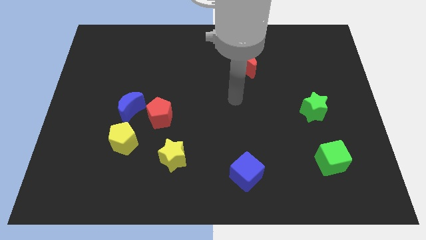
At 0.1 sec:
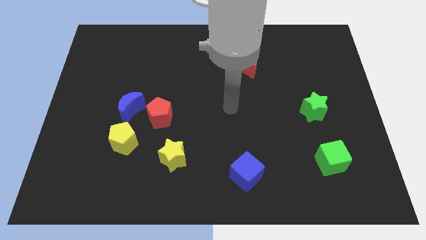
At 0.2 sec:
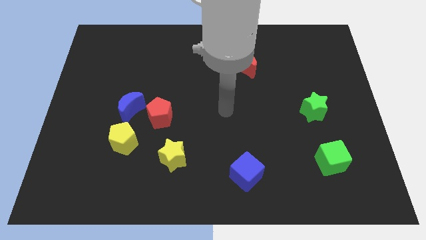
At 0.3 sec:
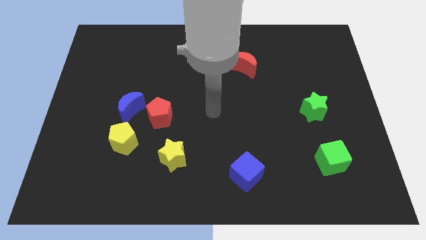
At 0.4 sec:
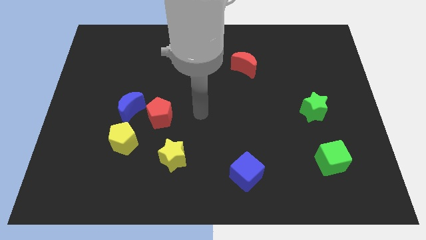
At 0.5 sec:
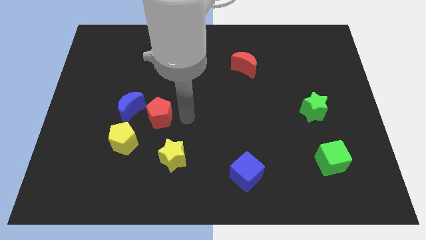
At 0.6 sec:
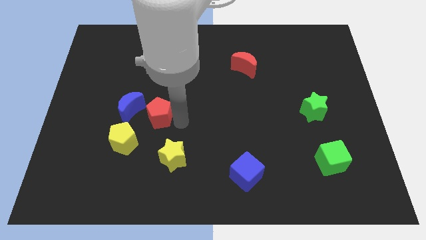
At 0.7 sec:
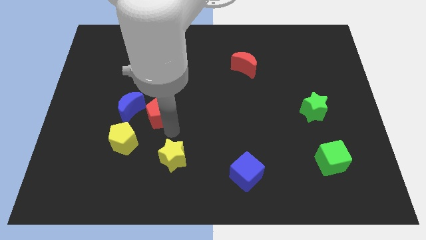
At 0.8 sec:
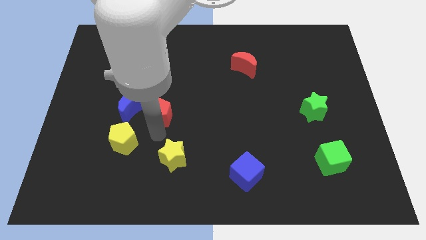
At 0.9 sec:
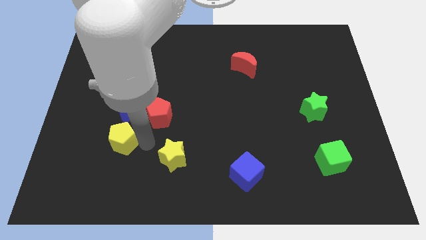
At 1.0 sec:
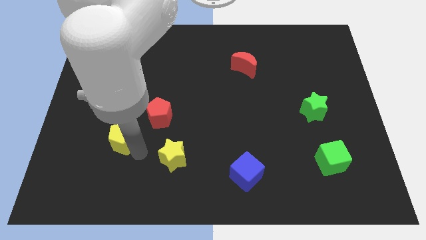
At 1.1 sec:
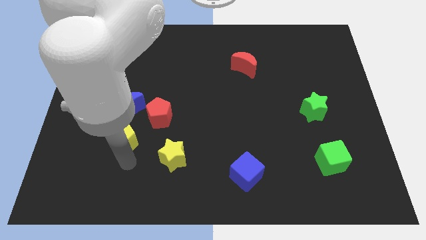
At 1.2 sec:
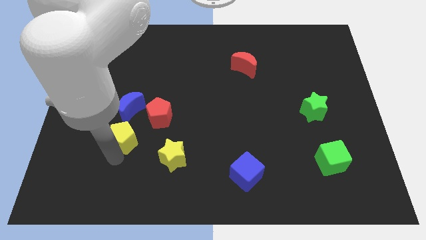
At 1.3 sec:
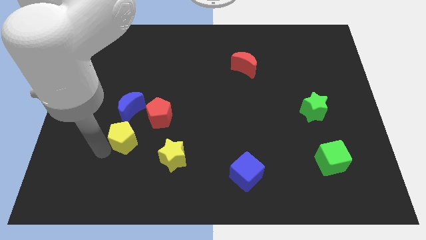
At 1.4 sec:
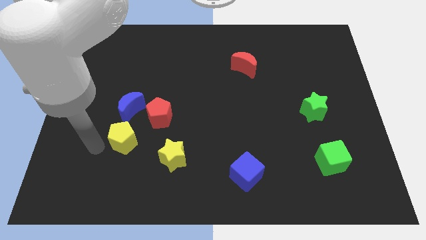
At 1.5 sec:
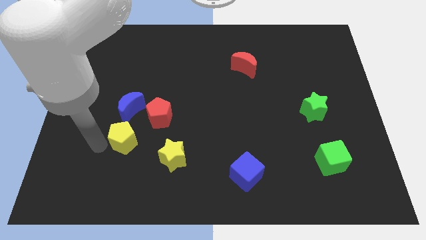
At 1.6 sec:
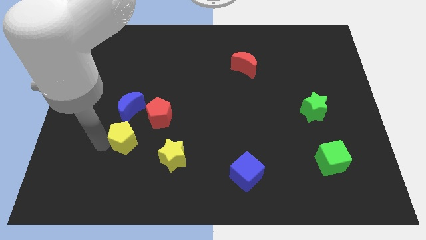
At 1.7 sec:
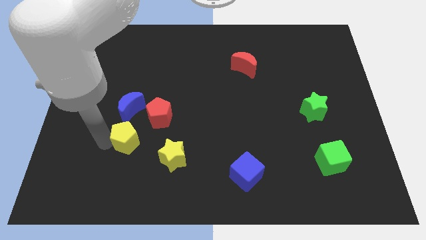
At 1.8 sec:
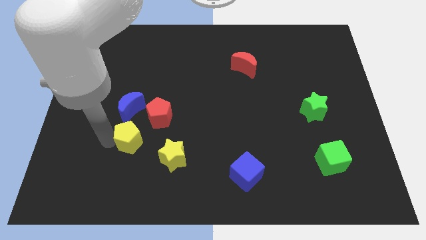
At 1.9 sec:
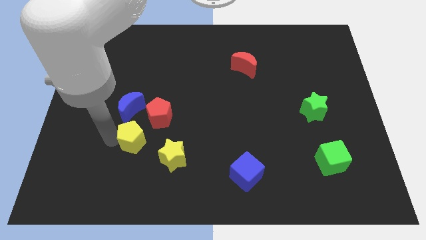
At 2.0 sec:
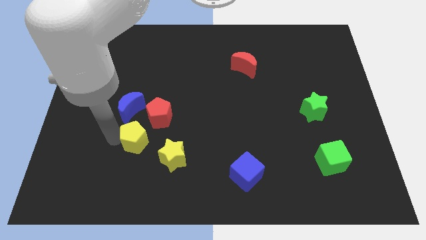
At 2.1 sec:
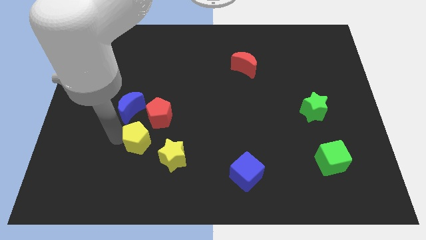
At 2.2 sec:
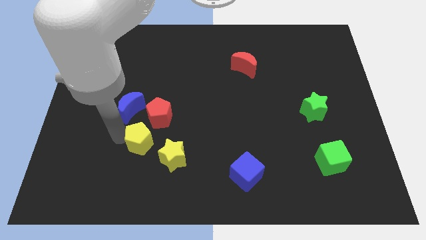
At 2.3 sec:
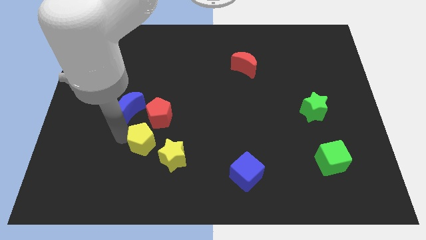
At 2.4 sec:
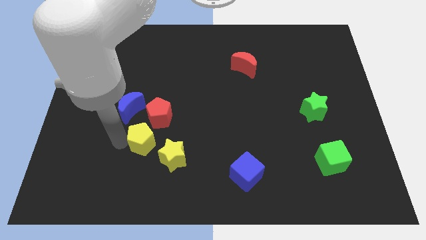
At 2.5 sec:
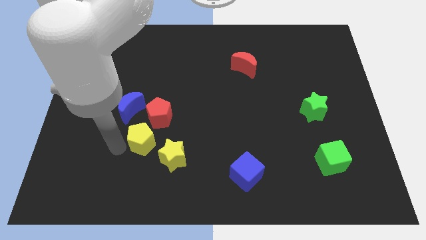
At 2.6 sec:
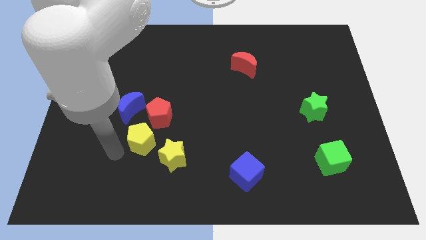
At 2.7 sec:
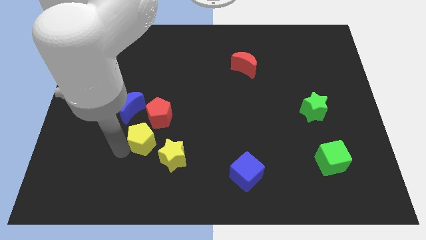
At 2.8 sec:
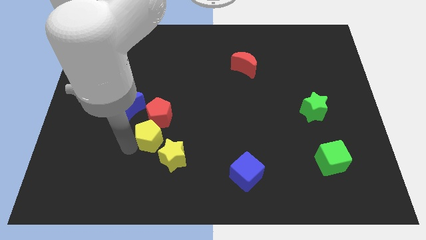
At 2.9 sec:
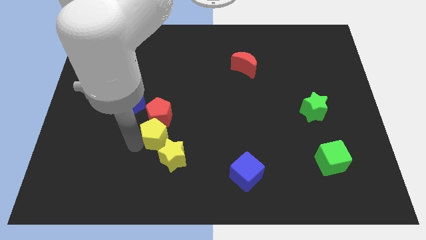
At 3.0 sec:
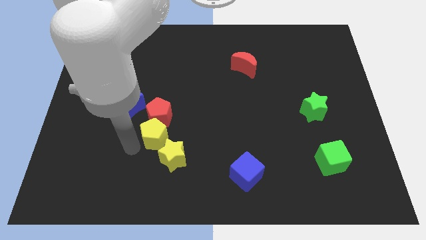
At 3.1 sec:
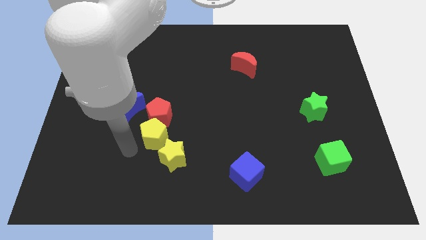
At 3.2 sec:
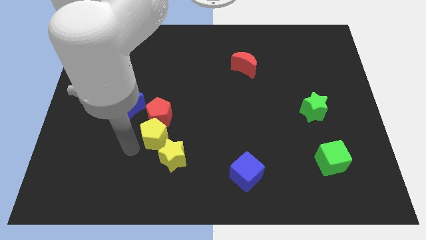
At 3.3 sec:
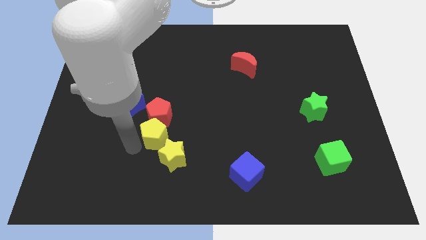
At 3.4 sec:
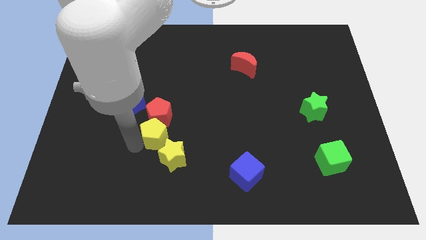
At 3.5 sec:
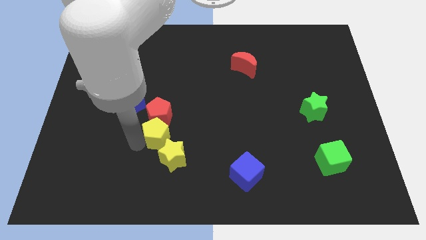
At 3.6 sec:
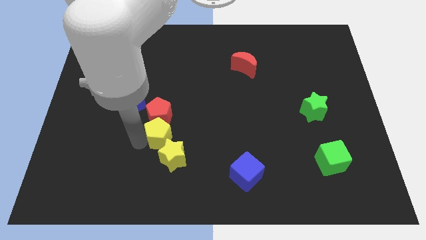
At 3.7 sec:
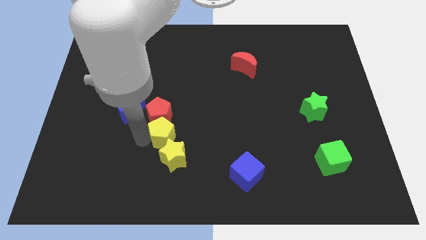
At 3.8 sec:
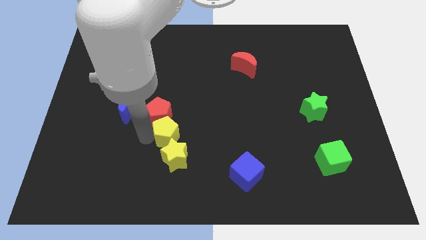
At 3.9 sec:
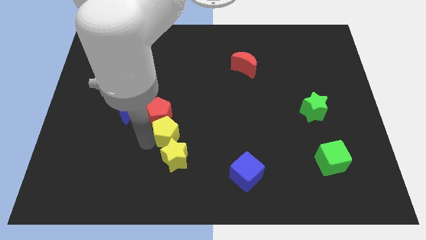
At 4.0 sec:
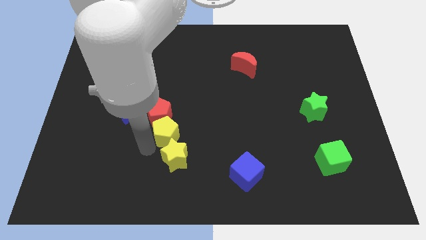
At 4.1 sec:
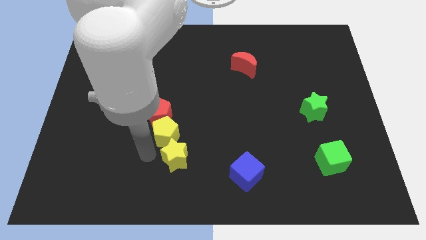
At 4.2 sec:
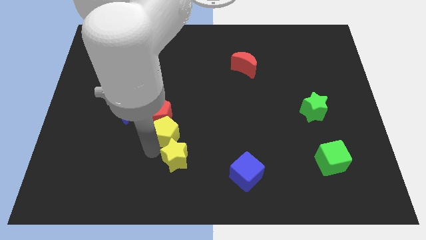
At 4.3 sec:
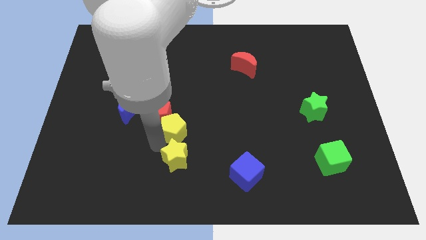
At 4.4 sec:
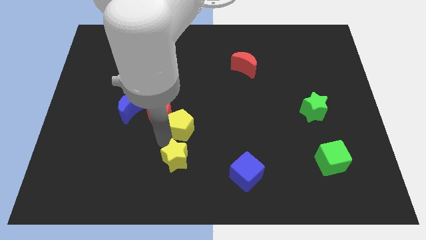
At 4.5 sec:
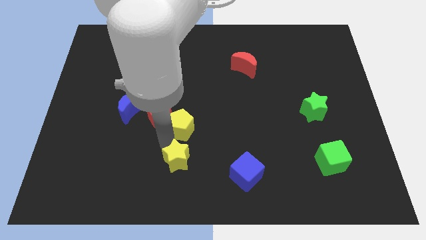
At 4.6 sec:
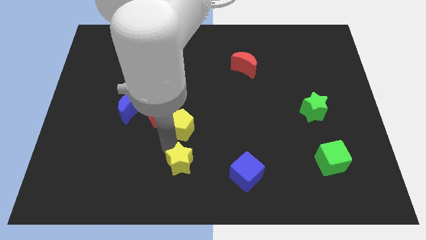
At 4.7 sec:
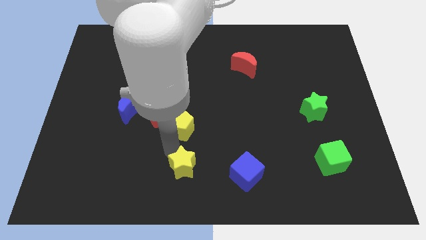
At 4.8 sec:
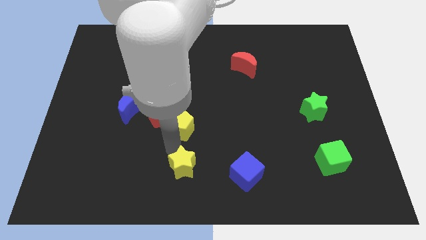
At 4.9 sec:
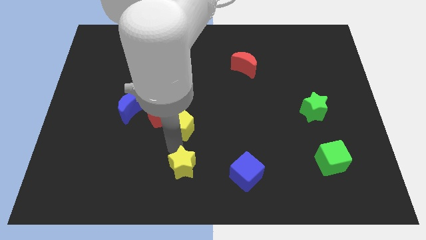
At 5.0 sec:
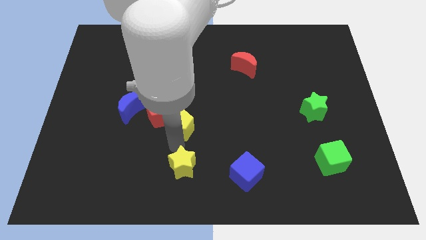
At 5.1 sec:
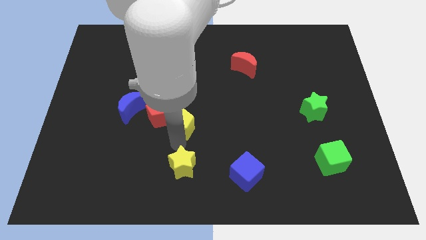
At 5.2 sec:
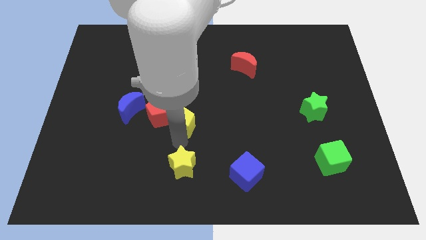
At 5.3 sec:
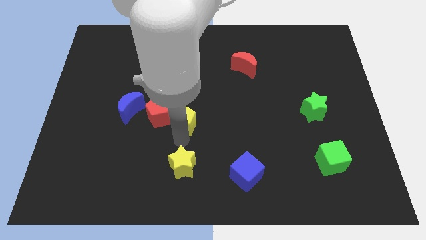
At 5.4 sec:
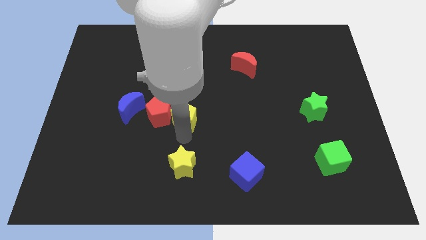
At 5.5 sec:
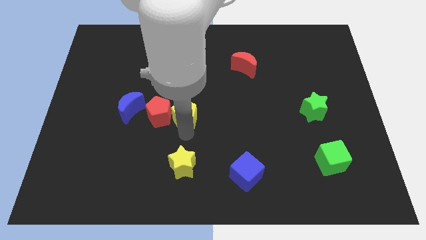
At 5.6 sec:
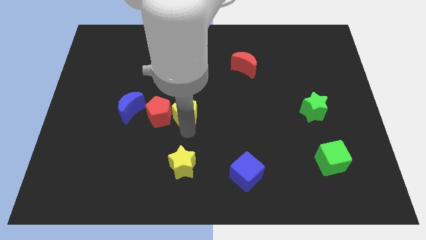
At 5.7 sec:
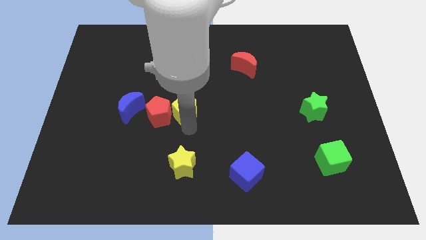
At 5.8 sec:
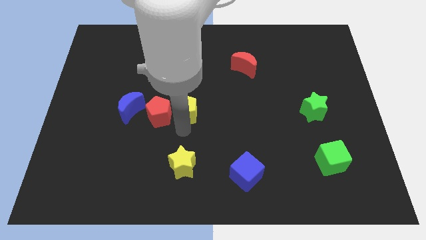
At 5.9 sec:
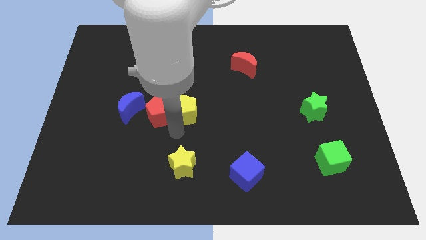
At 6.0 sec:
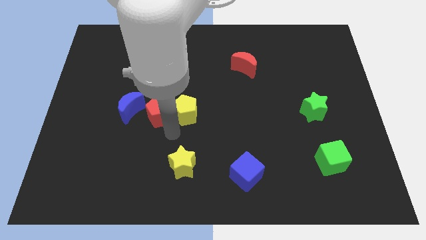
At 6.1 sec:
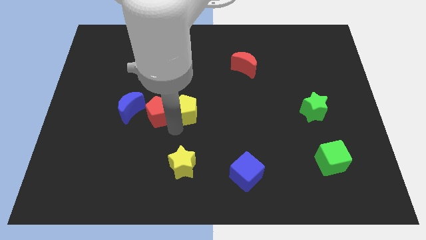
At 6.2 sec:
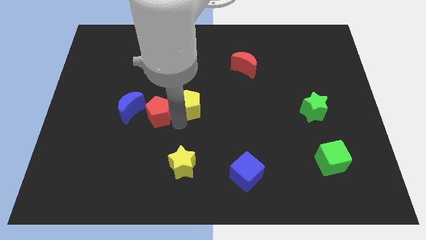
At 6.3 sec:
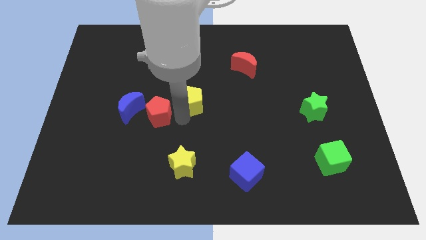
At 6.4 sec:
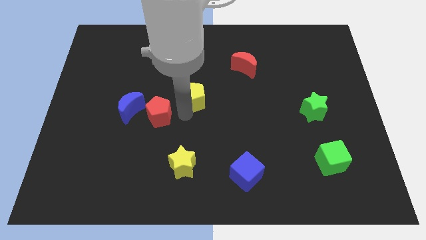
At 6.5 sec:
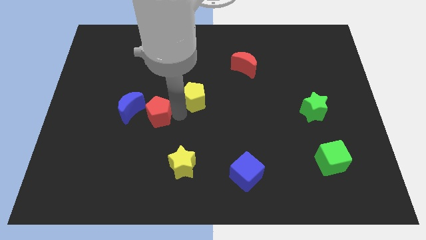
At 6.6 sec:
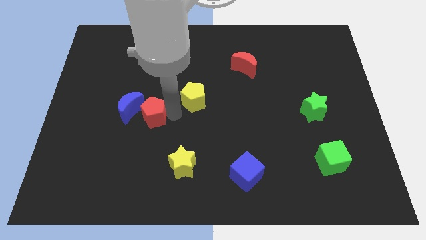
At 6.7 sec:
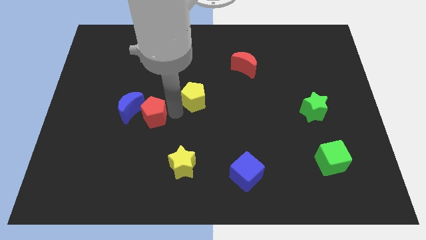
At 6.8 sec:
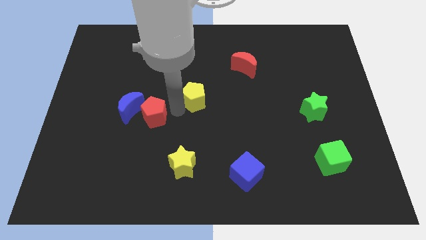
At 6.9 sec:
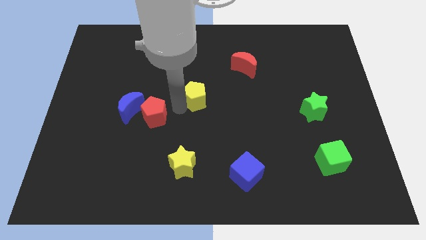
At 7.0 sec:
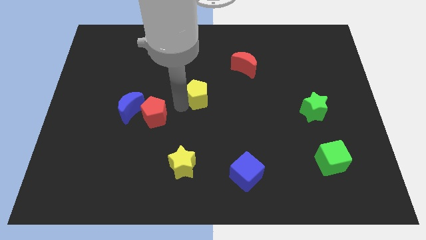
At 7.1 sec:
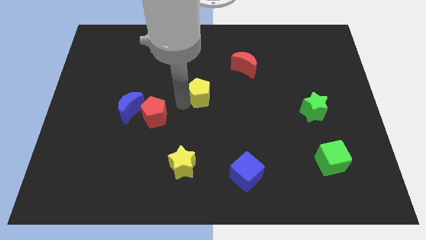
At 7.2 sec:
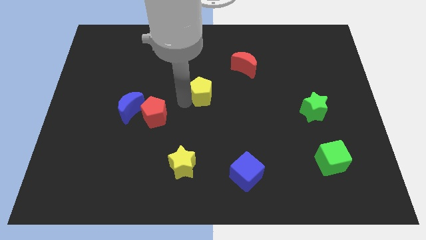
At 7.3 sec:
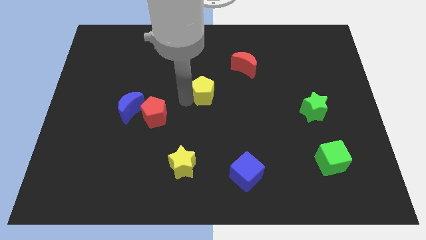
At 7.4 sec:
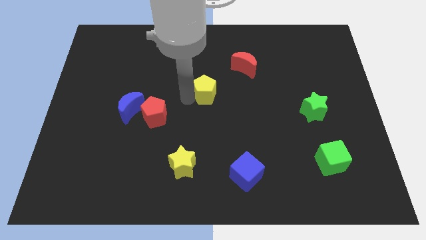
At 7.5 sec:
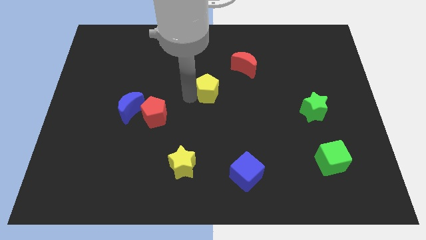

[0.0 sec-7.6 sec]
slide the yellow pentagon to the bottom left side of the red moon
